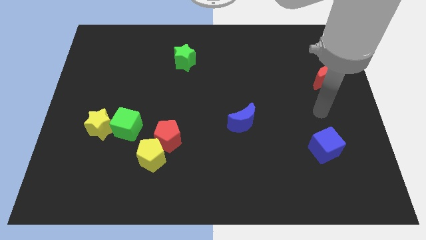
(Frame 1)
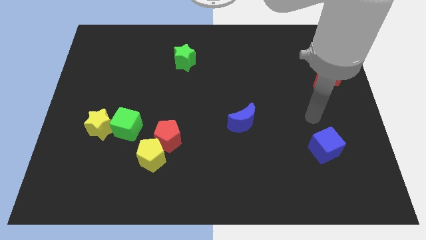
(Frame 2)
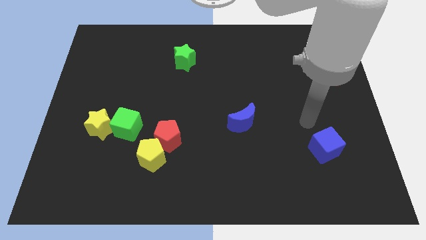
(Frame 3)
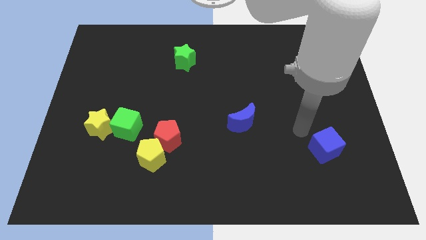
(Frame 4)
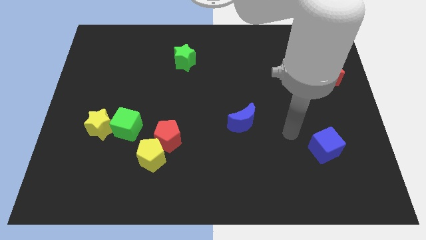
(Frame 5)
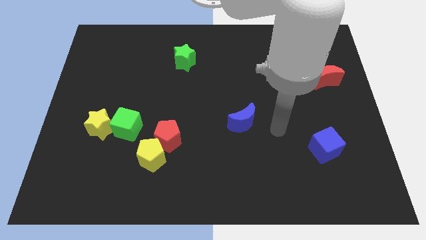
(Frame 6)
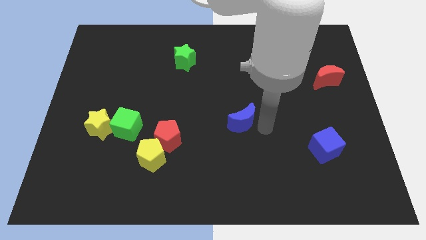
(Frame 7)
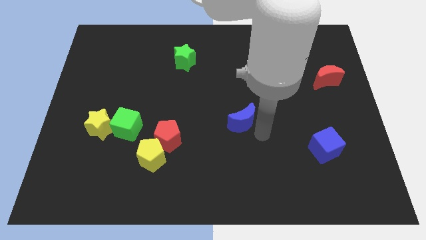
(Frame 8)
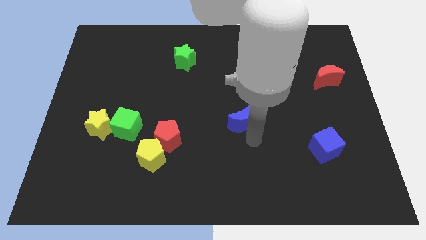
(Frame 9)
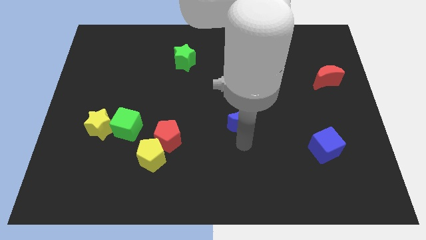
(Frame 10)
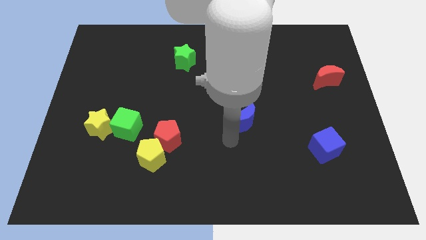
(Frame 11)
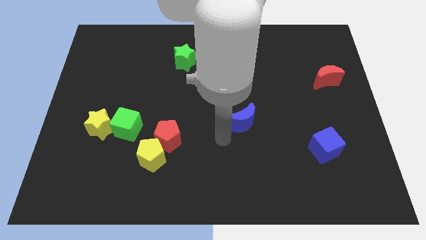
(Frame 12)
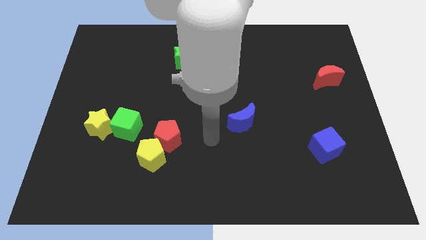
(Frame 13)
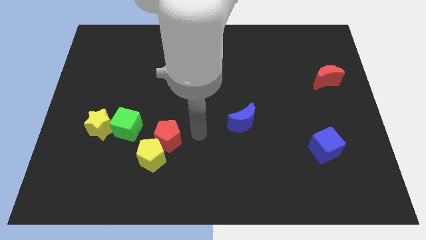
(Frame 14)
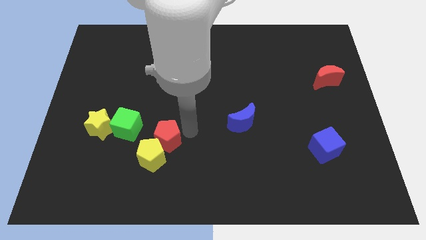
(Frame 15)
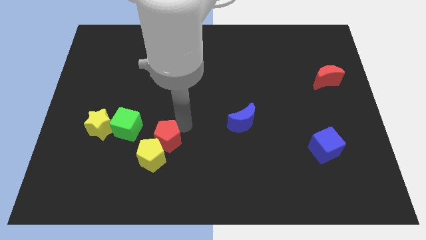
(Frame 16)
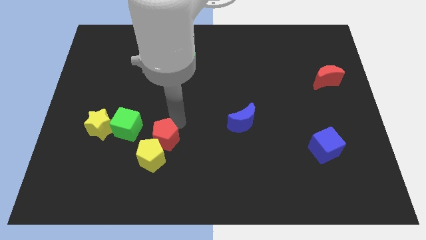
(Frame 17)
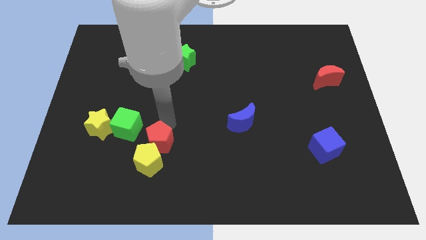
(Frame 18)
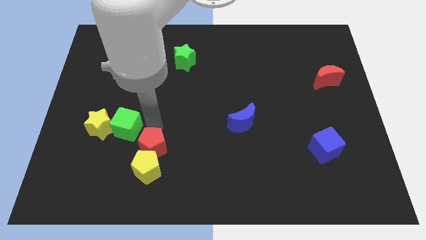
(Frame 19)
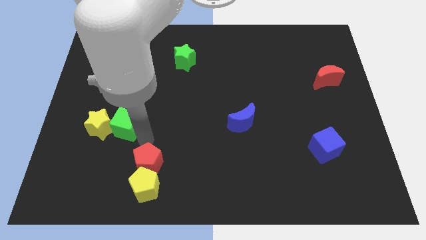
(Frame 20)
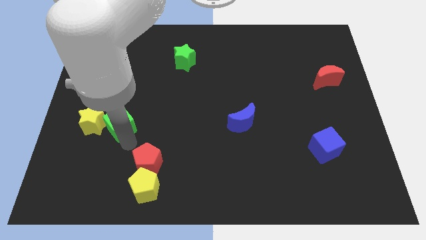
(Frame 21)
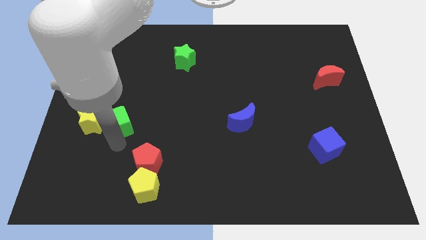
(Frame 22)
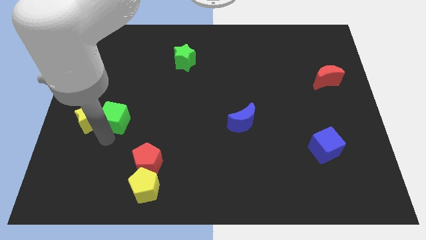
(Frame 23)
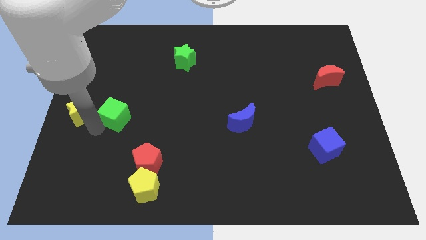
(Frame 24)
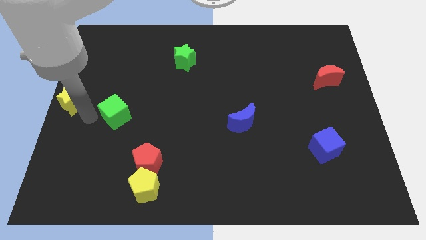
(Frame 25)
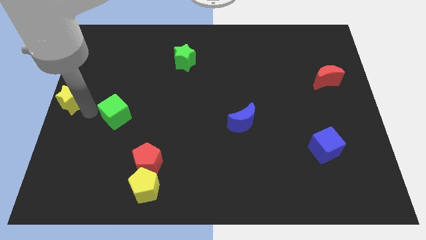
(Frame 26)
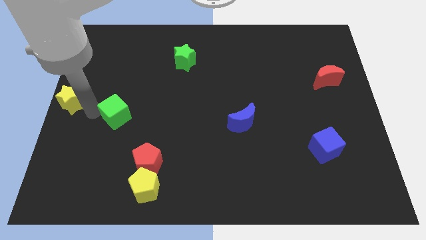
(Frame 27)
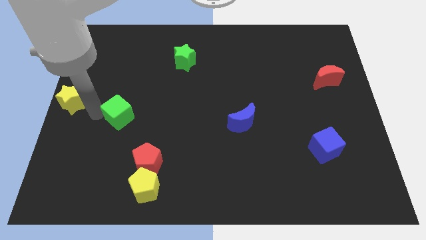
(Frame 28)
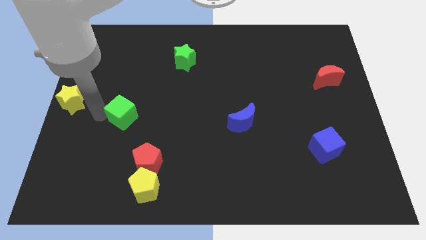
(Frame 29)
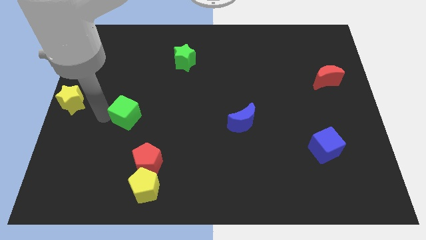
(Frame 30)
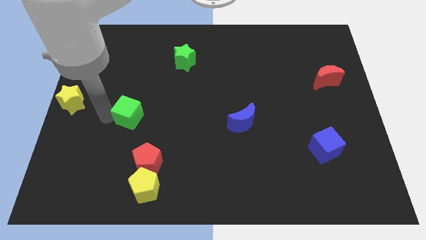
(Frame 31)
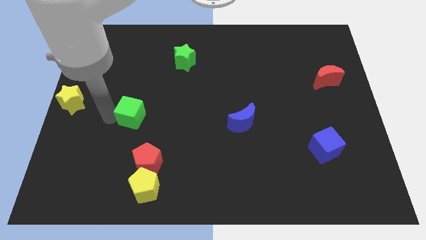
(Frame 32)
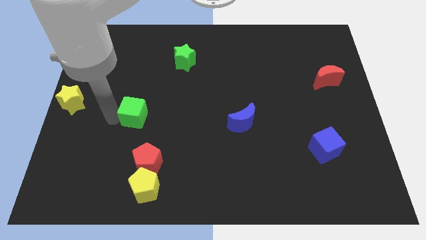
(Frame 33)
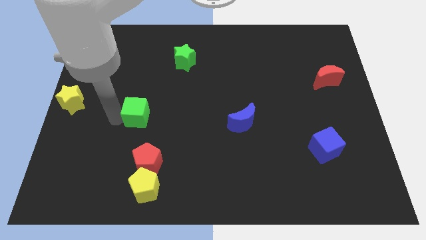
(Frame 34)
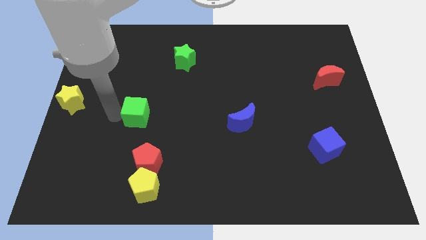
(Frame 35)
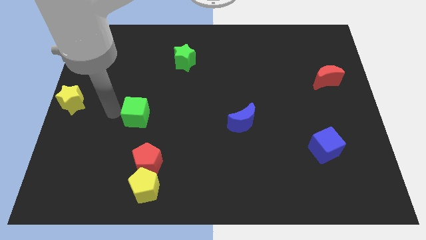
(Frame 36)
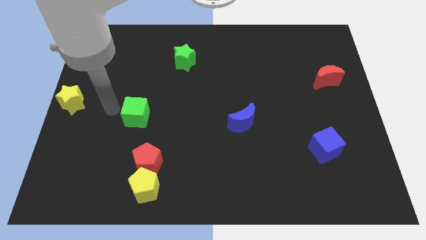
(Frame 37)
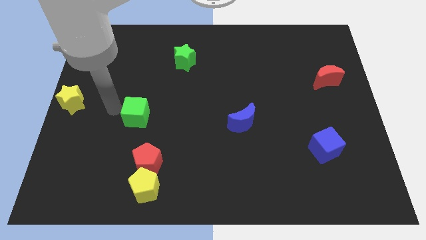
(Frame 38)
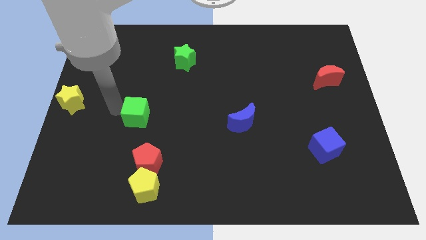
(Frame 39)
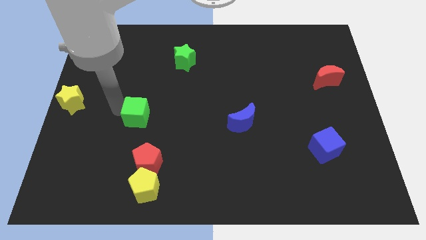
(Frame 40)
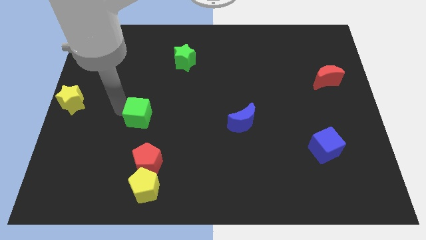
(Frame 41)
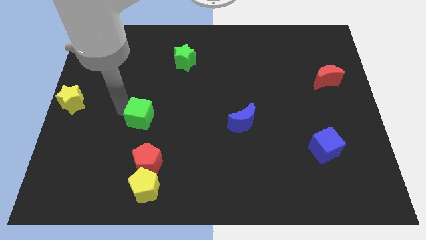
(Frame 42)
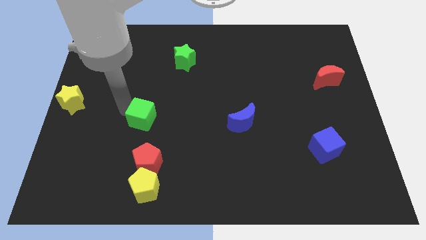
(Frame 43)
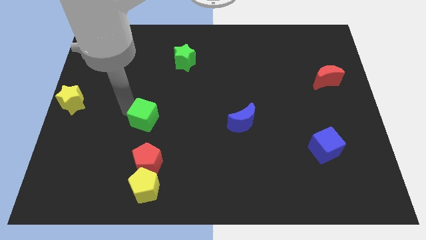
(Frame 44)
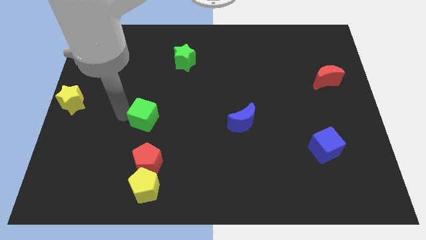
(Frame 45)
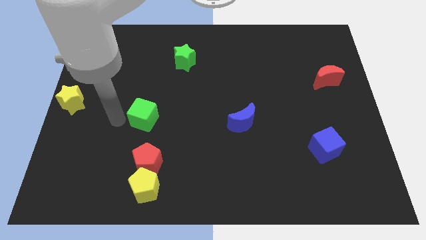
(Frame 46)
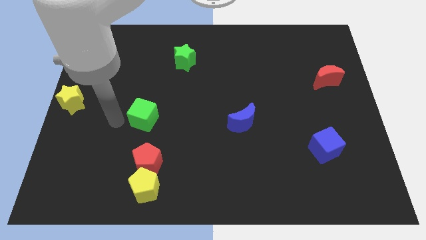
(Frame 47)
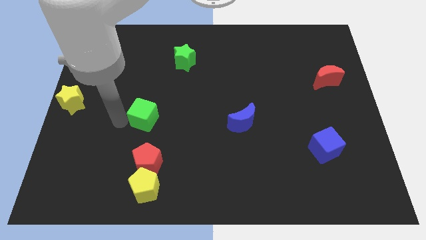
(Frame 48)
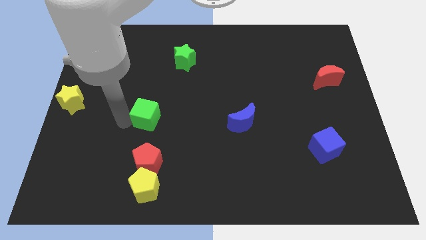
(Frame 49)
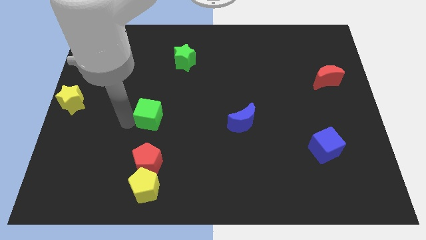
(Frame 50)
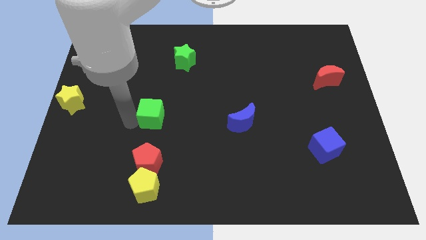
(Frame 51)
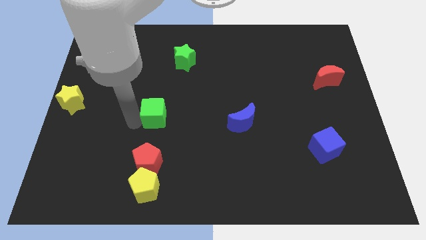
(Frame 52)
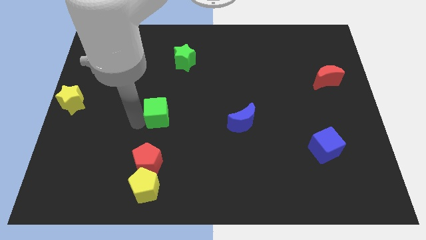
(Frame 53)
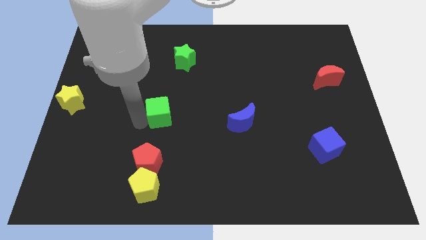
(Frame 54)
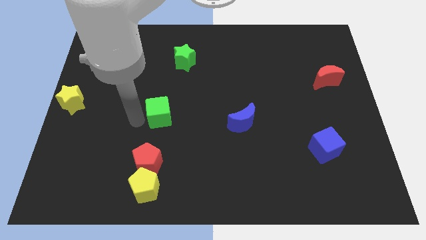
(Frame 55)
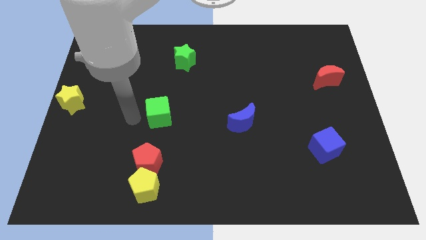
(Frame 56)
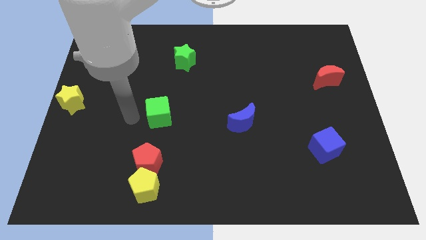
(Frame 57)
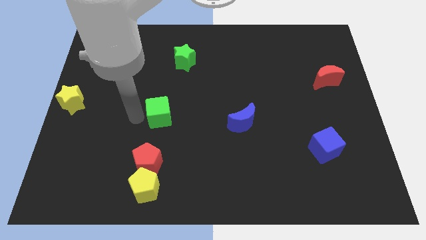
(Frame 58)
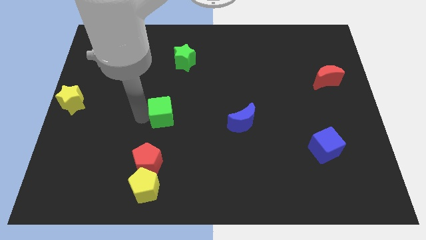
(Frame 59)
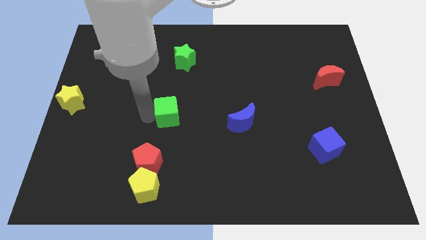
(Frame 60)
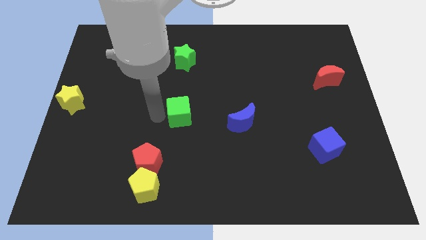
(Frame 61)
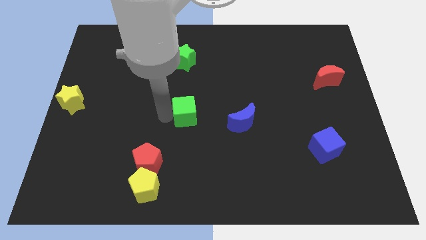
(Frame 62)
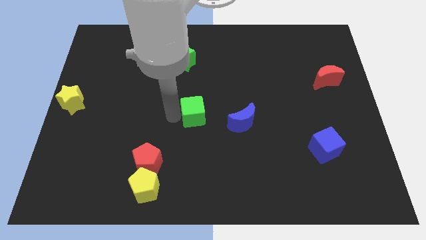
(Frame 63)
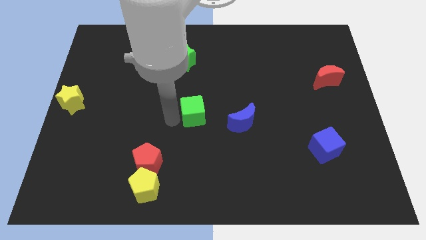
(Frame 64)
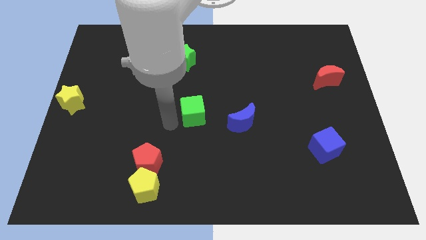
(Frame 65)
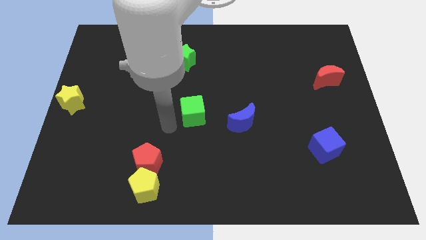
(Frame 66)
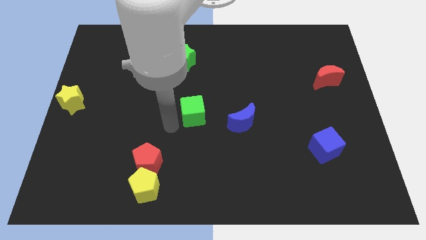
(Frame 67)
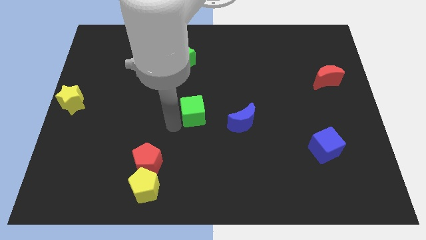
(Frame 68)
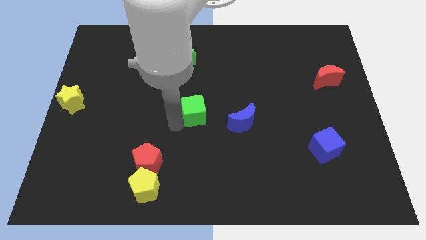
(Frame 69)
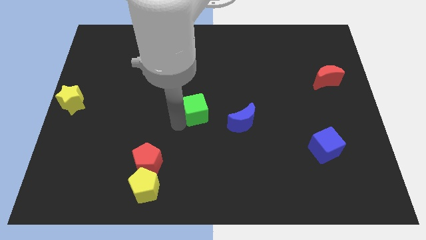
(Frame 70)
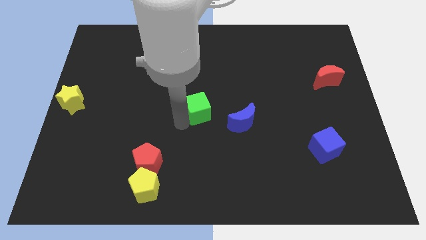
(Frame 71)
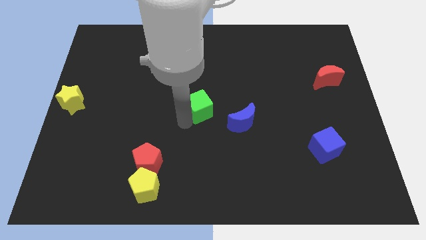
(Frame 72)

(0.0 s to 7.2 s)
put the green cube to the top left side of the blue moon

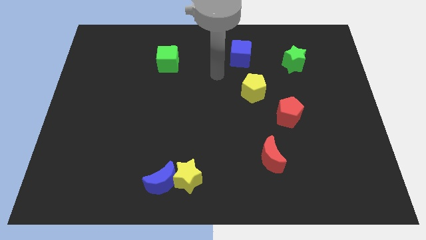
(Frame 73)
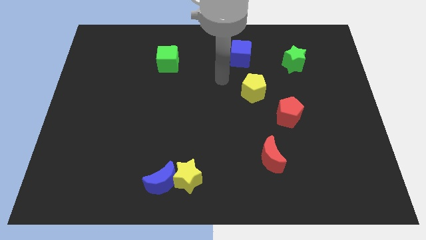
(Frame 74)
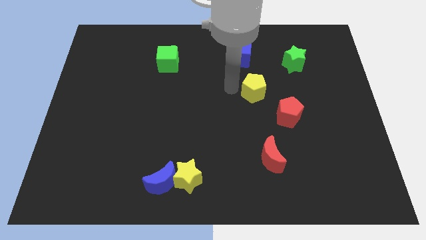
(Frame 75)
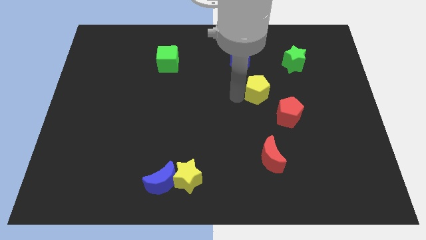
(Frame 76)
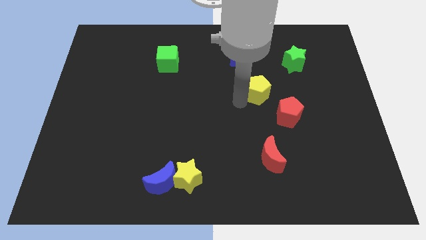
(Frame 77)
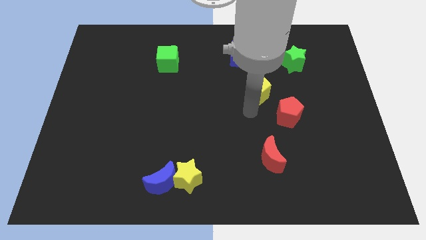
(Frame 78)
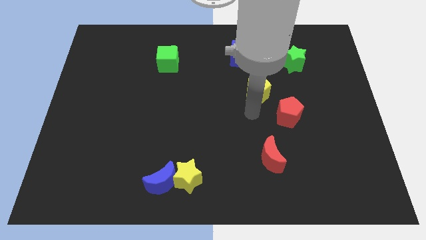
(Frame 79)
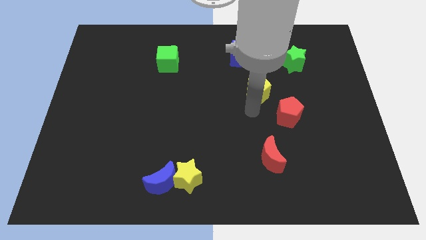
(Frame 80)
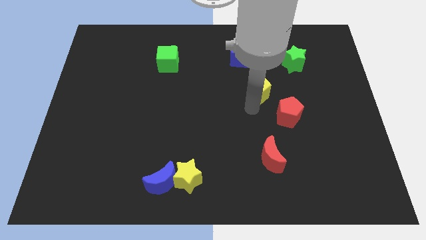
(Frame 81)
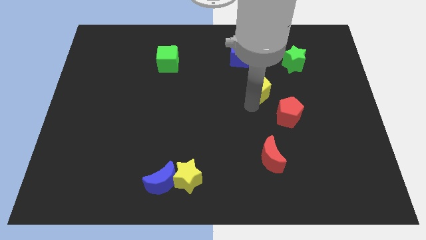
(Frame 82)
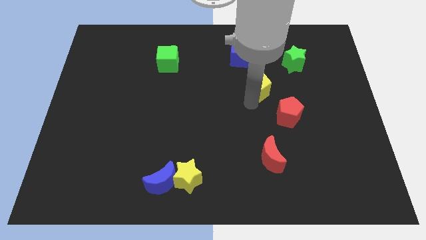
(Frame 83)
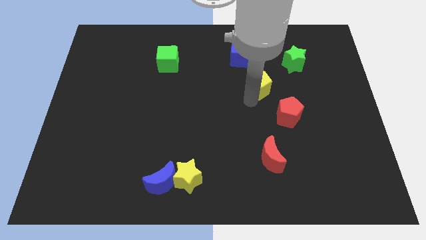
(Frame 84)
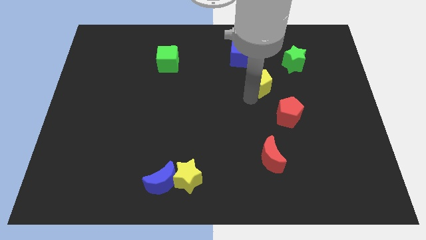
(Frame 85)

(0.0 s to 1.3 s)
slide the yellow pentagon to the bottom right side of the blue cube
